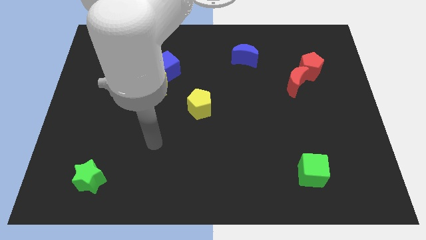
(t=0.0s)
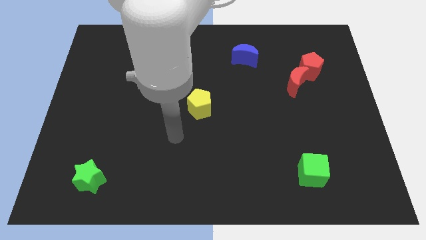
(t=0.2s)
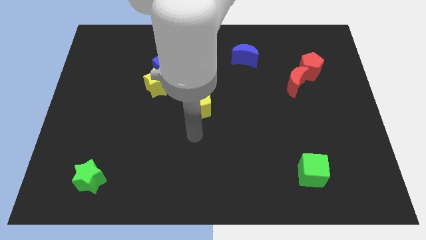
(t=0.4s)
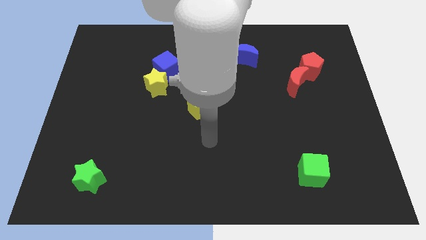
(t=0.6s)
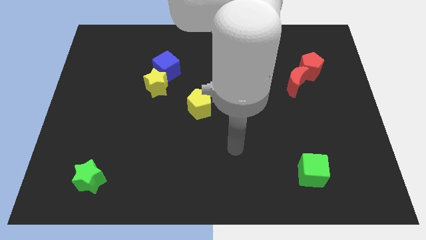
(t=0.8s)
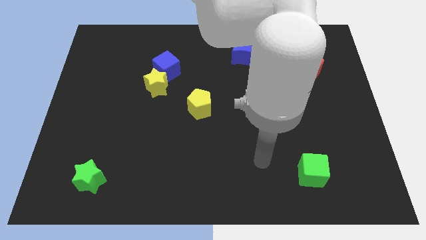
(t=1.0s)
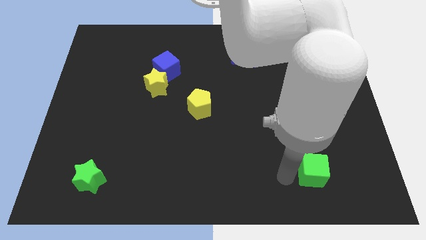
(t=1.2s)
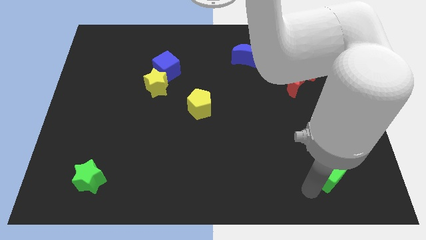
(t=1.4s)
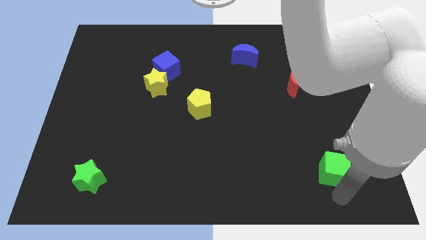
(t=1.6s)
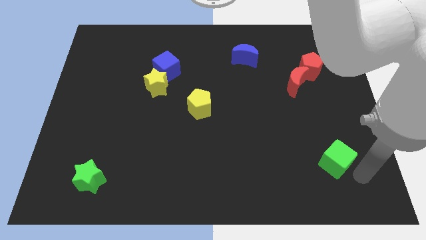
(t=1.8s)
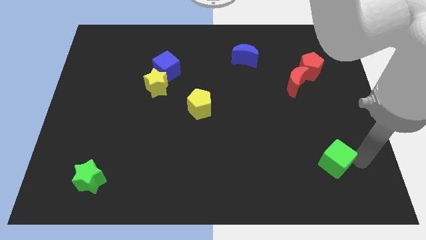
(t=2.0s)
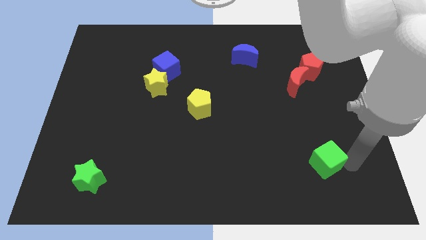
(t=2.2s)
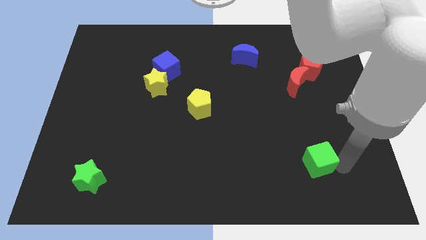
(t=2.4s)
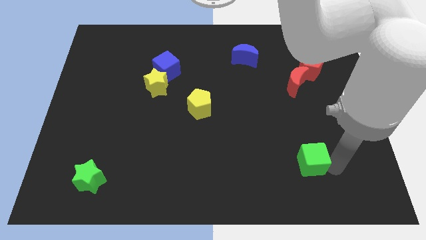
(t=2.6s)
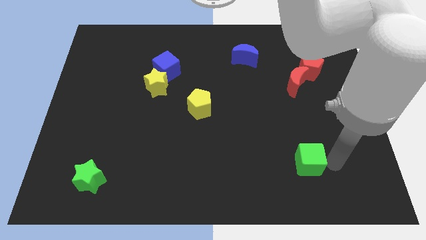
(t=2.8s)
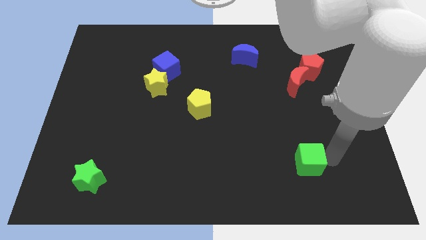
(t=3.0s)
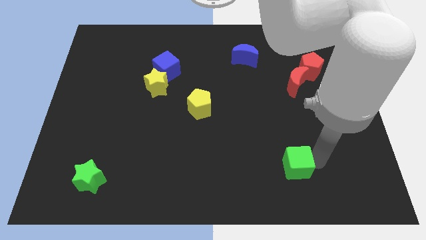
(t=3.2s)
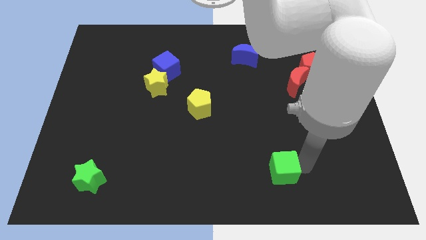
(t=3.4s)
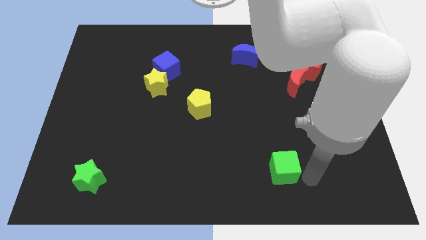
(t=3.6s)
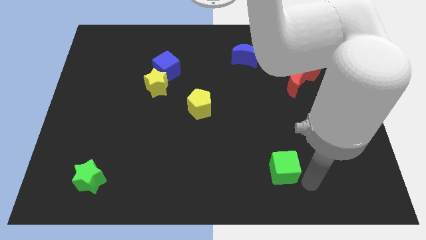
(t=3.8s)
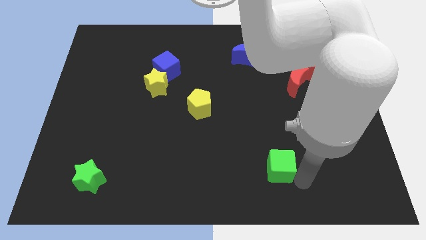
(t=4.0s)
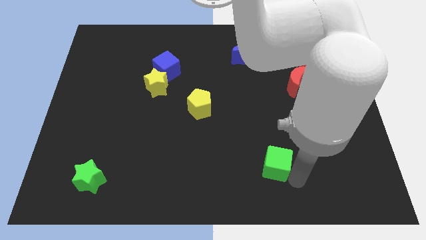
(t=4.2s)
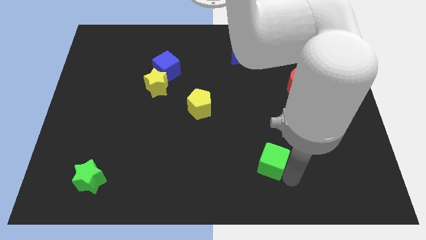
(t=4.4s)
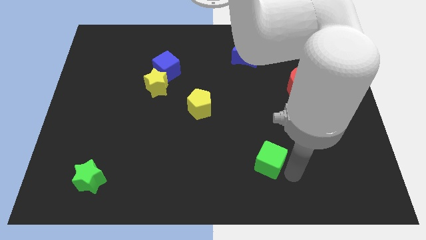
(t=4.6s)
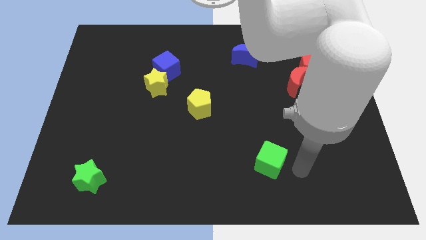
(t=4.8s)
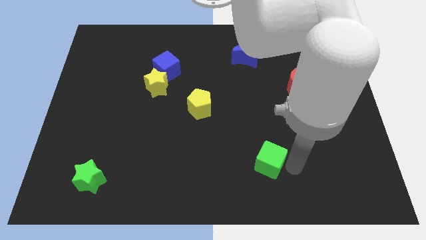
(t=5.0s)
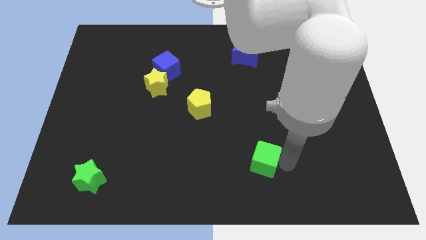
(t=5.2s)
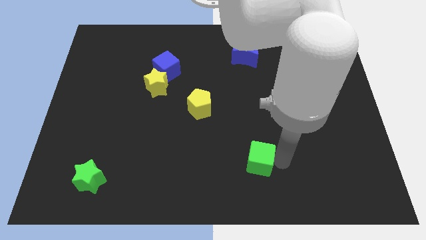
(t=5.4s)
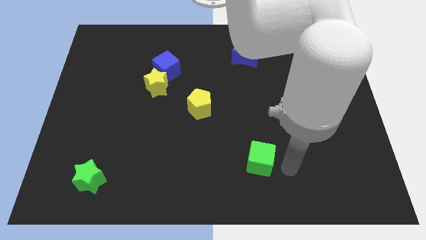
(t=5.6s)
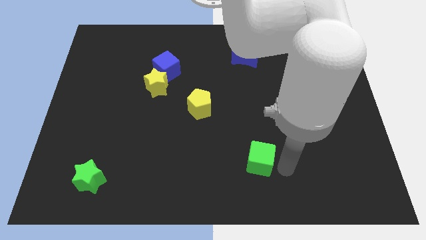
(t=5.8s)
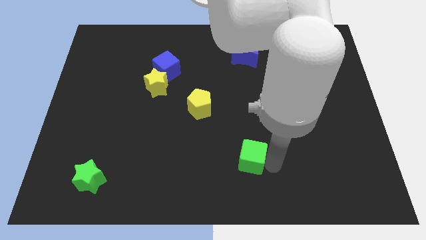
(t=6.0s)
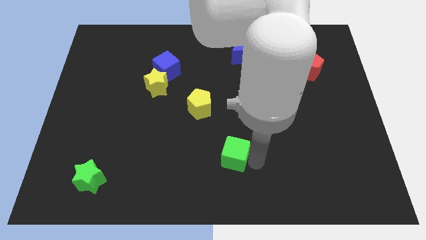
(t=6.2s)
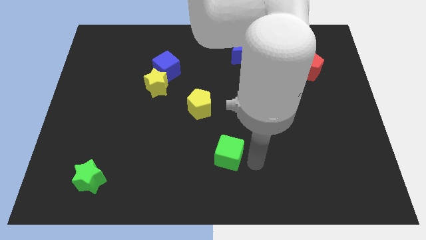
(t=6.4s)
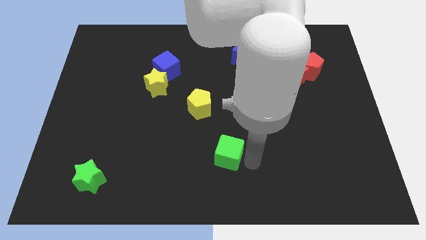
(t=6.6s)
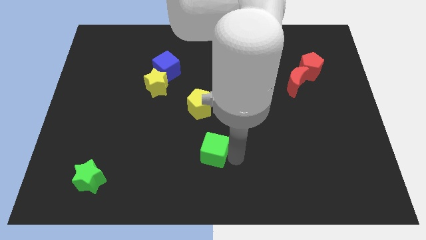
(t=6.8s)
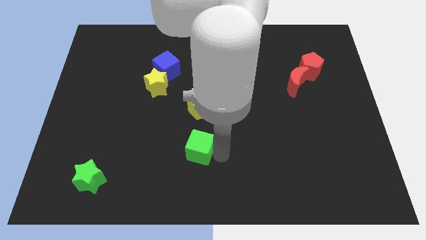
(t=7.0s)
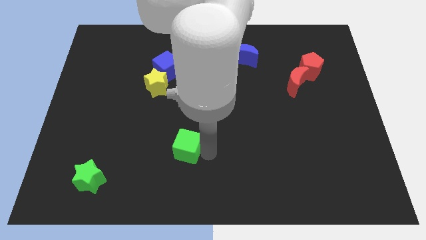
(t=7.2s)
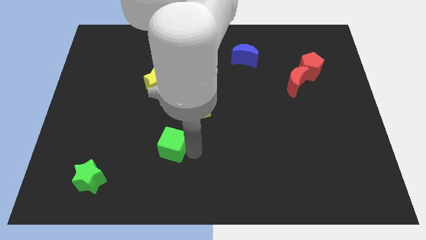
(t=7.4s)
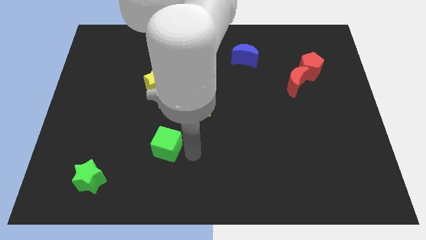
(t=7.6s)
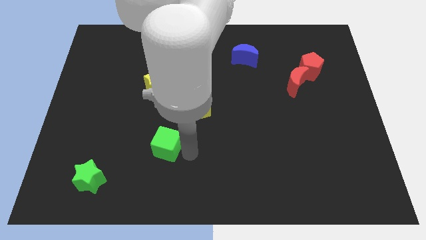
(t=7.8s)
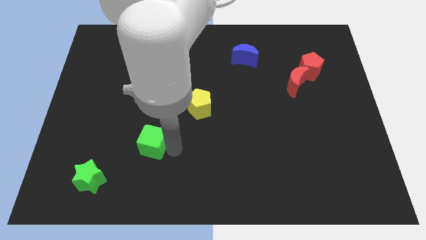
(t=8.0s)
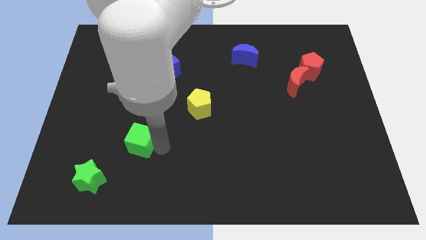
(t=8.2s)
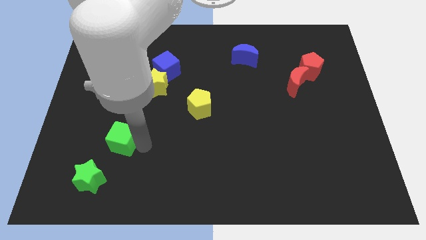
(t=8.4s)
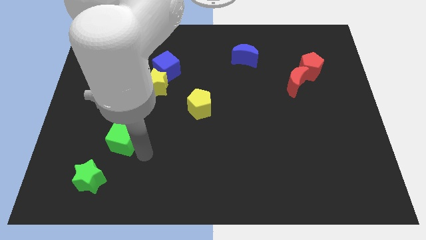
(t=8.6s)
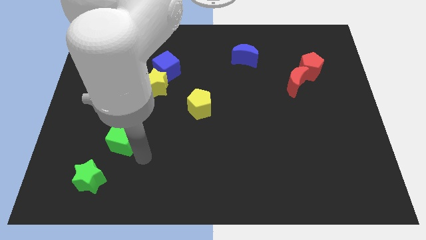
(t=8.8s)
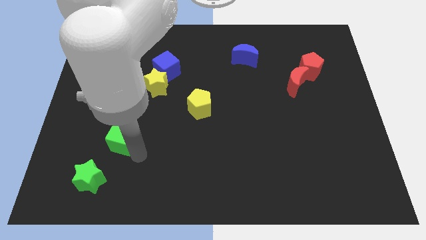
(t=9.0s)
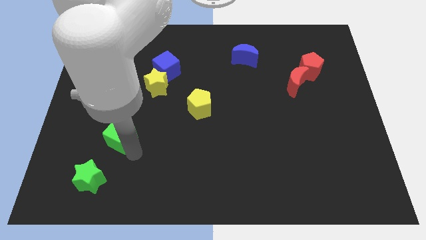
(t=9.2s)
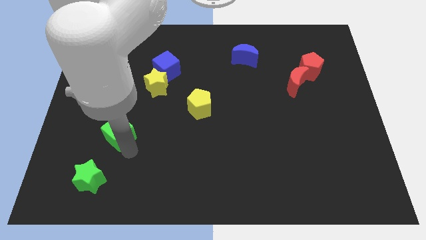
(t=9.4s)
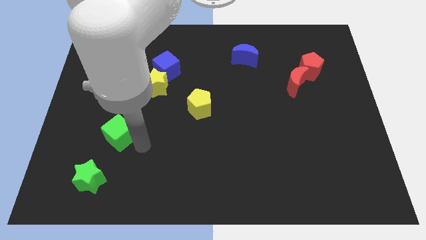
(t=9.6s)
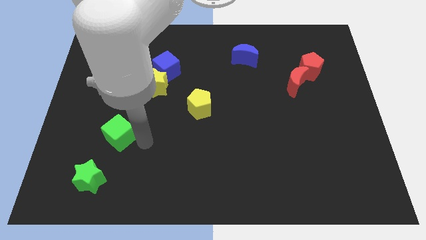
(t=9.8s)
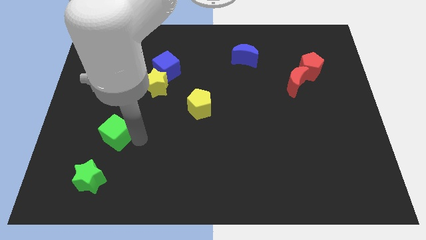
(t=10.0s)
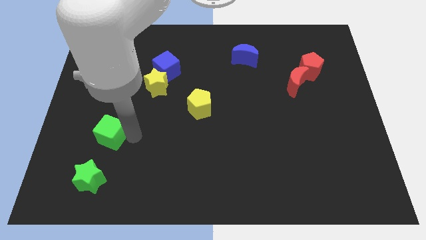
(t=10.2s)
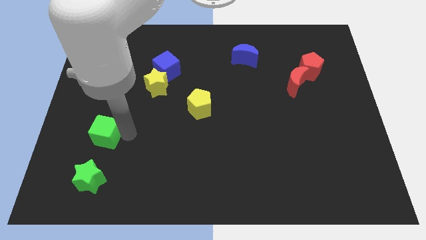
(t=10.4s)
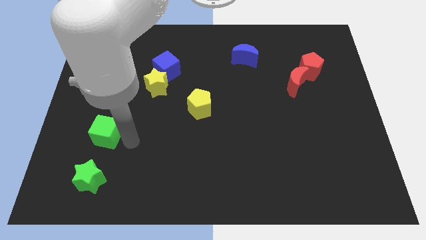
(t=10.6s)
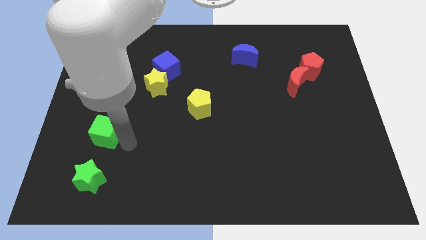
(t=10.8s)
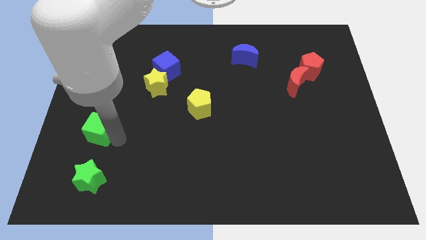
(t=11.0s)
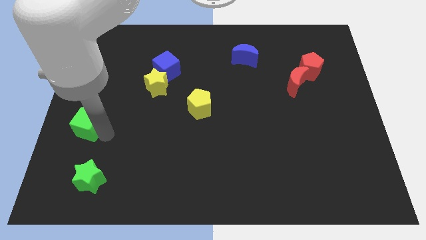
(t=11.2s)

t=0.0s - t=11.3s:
move the green cube to the left side of the board
